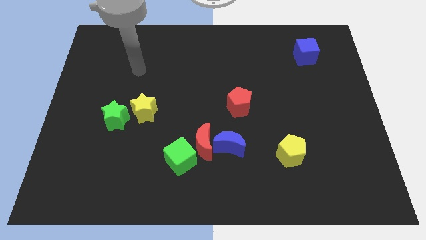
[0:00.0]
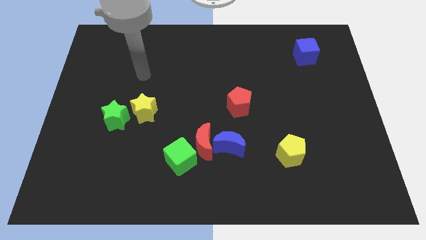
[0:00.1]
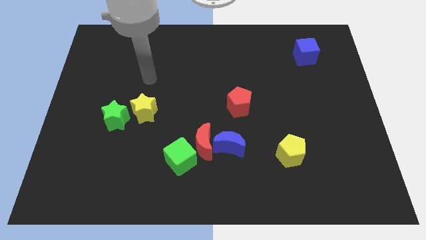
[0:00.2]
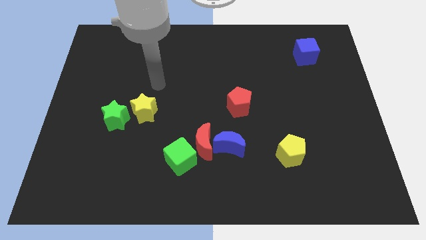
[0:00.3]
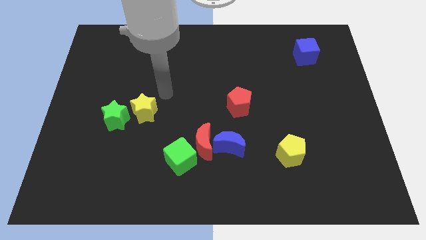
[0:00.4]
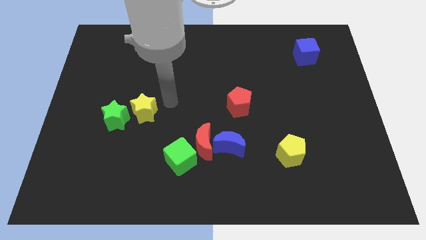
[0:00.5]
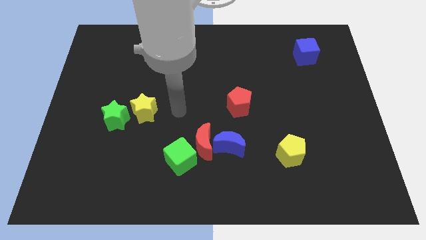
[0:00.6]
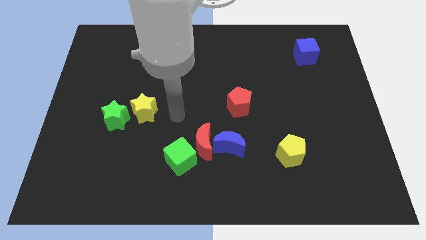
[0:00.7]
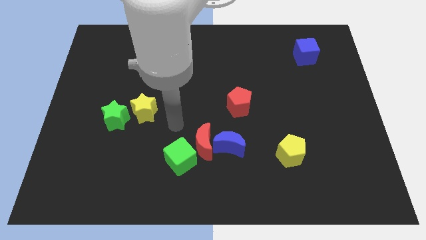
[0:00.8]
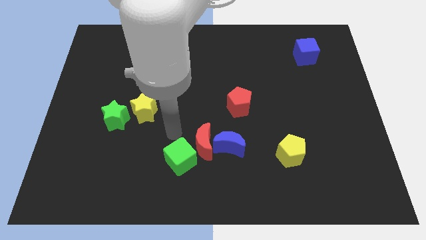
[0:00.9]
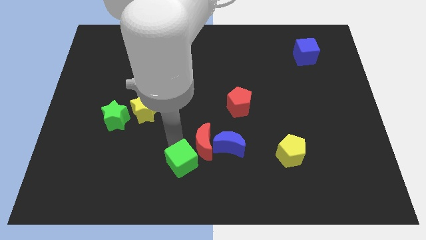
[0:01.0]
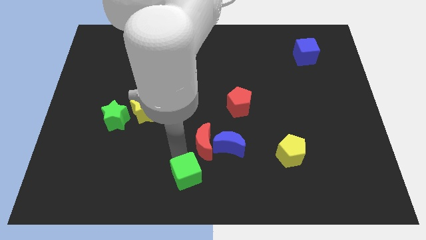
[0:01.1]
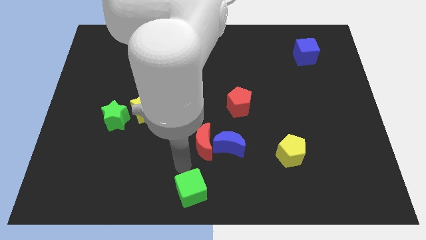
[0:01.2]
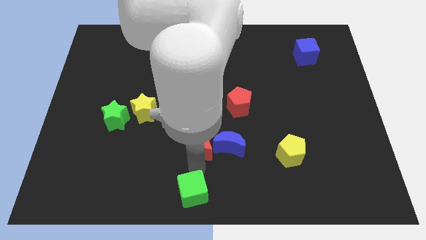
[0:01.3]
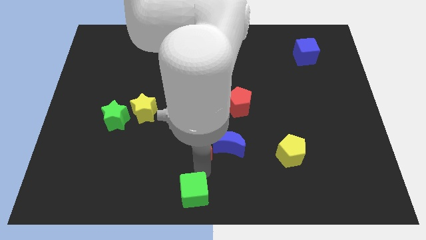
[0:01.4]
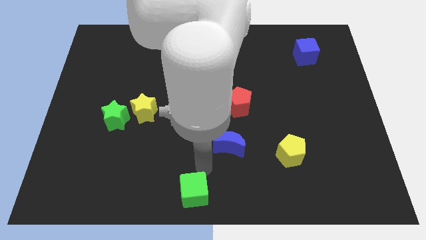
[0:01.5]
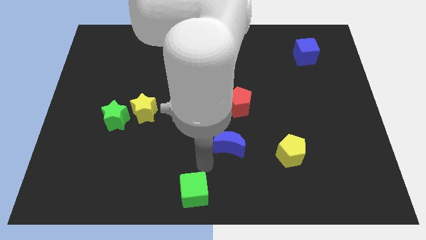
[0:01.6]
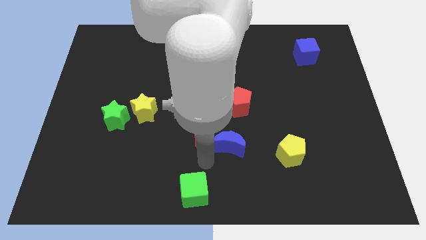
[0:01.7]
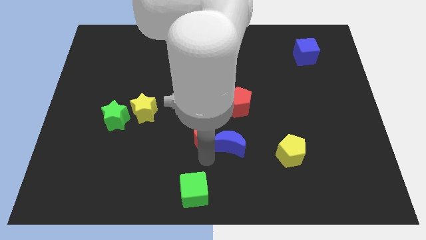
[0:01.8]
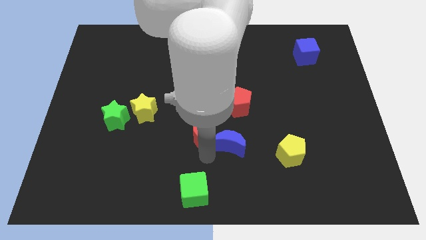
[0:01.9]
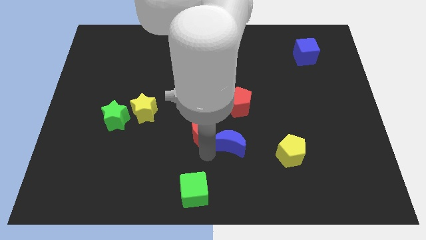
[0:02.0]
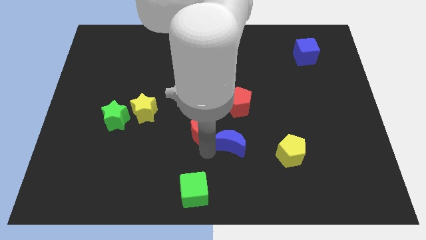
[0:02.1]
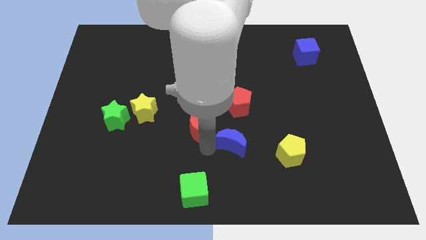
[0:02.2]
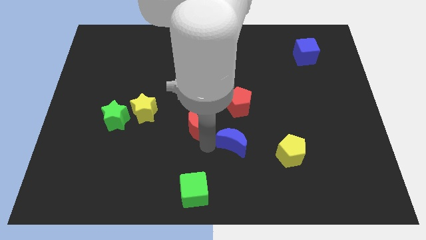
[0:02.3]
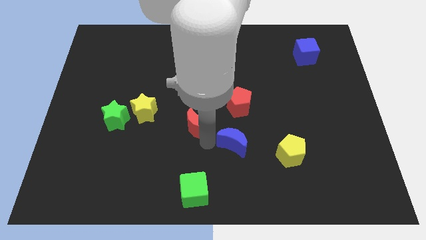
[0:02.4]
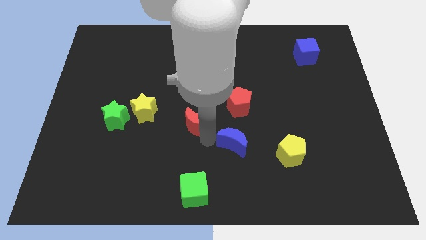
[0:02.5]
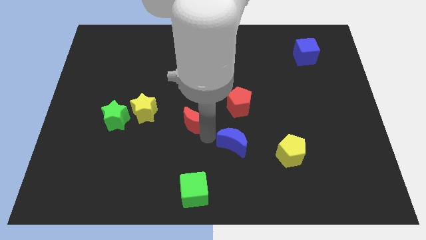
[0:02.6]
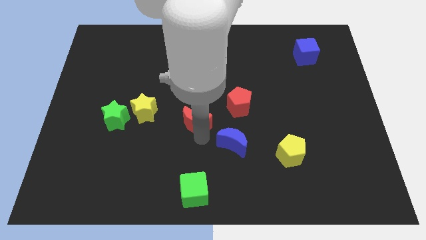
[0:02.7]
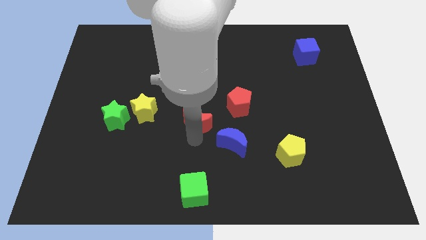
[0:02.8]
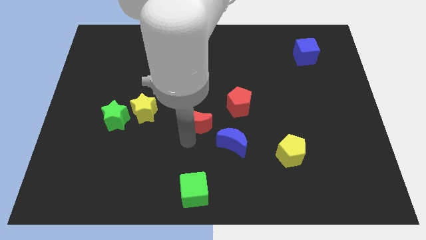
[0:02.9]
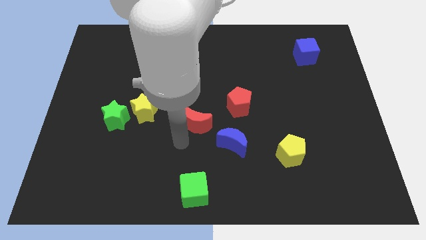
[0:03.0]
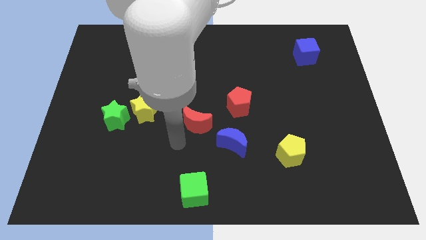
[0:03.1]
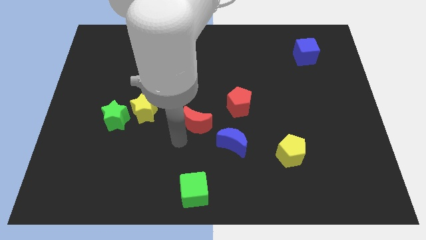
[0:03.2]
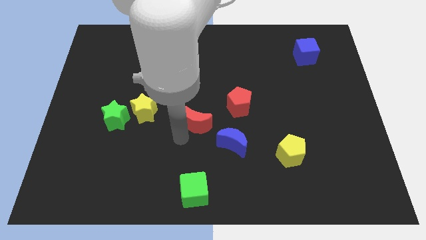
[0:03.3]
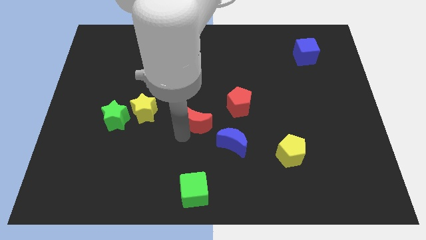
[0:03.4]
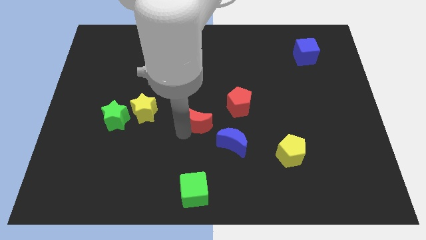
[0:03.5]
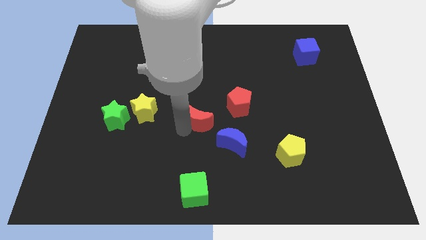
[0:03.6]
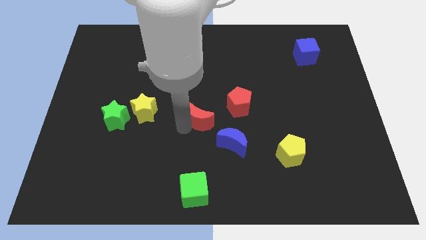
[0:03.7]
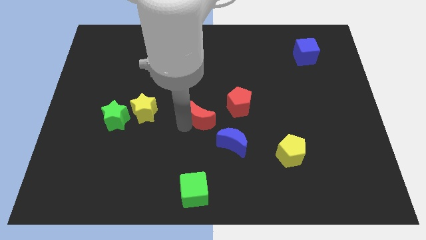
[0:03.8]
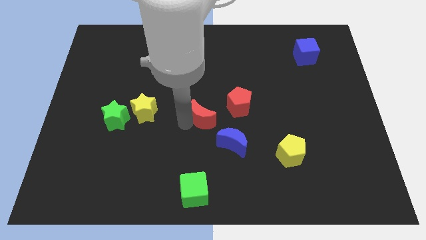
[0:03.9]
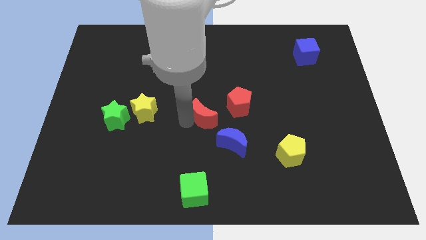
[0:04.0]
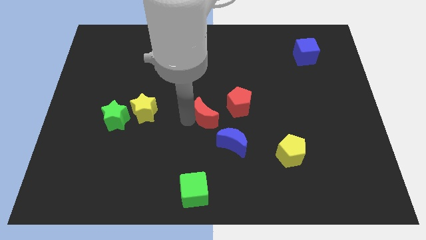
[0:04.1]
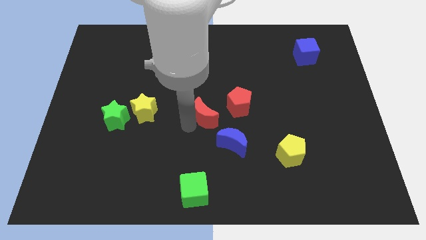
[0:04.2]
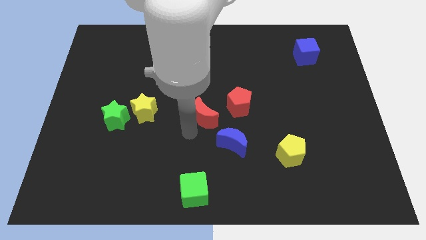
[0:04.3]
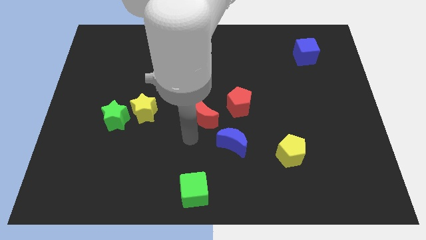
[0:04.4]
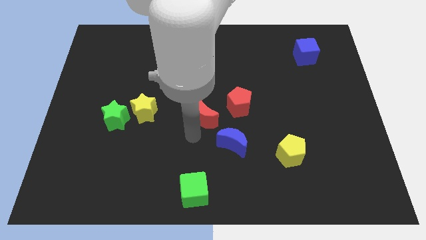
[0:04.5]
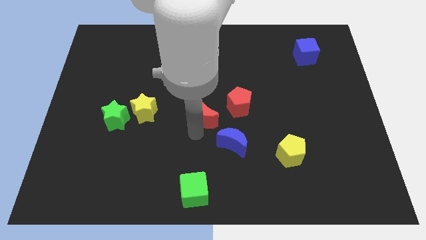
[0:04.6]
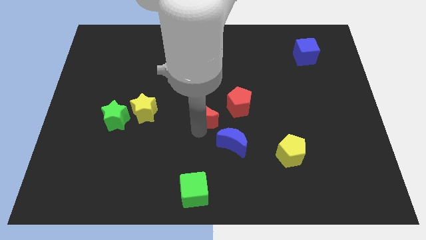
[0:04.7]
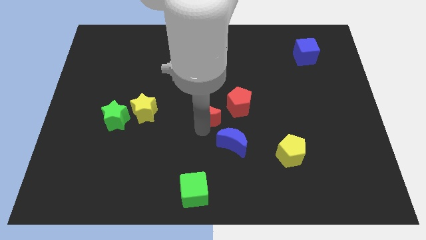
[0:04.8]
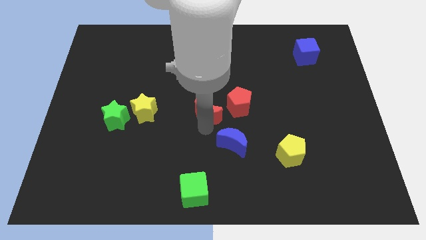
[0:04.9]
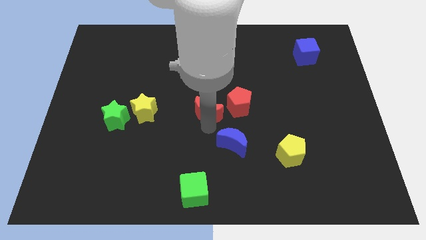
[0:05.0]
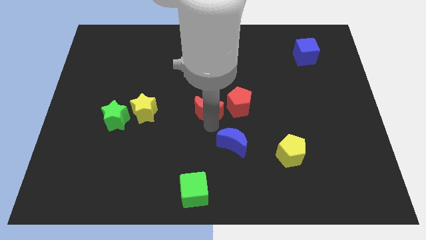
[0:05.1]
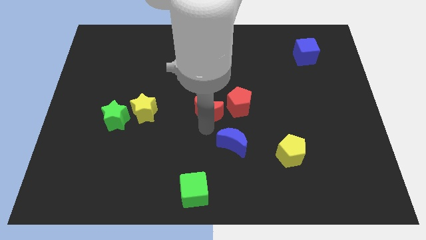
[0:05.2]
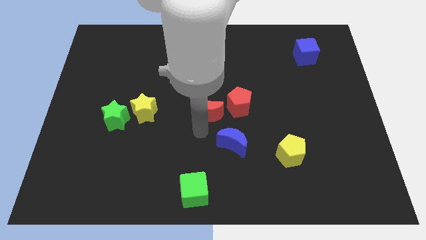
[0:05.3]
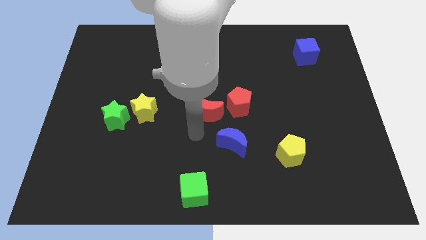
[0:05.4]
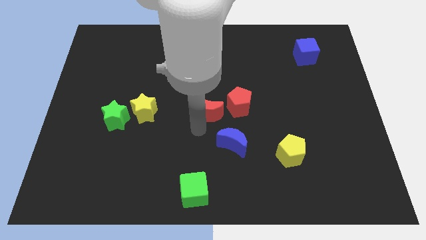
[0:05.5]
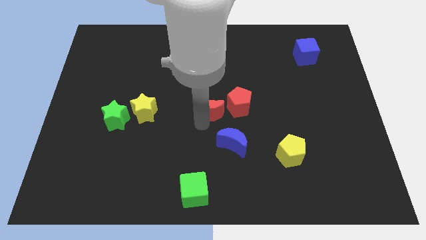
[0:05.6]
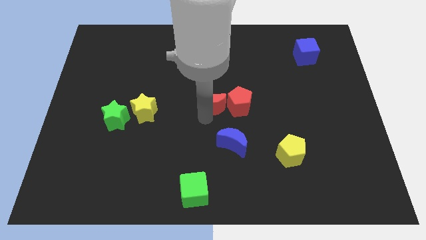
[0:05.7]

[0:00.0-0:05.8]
slide the red moon up and to the right diagonally slightly

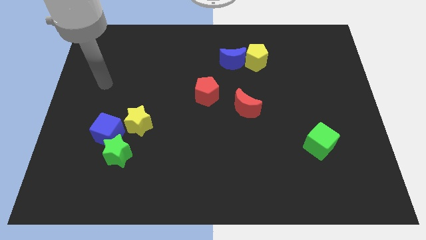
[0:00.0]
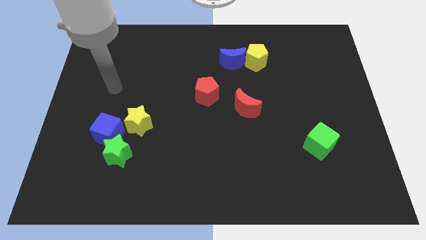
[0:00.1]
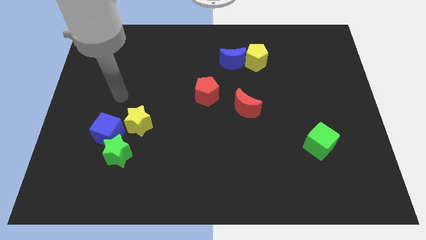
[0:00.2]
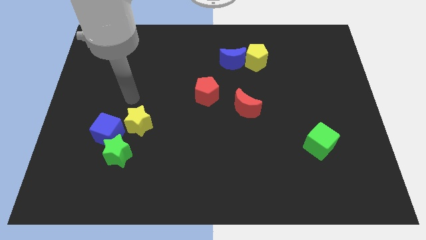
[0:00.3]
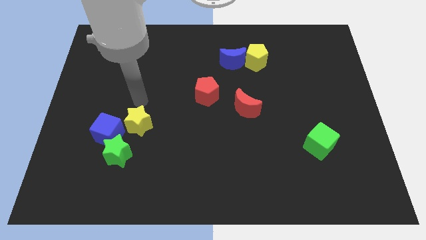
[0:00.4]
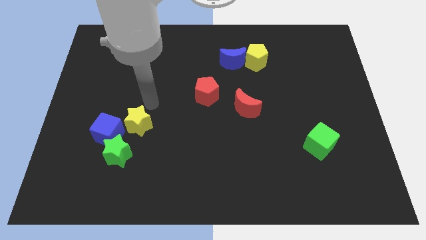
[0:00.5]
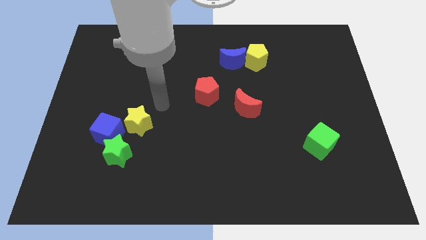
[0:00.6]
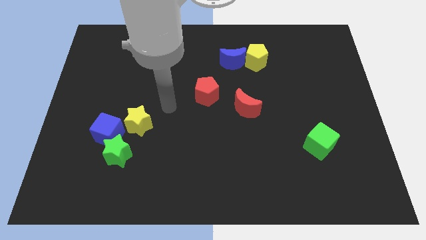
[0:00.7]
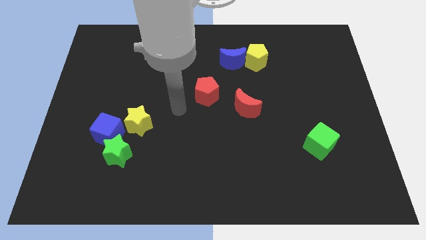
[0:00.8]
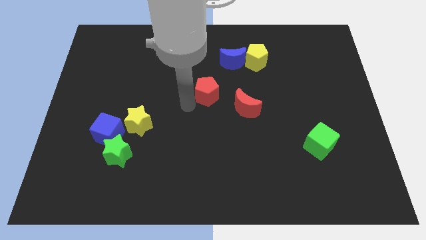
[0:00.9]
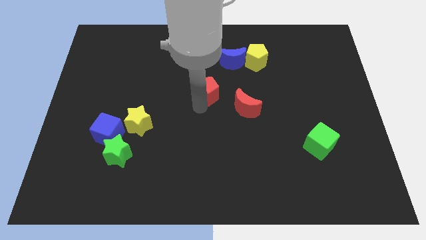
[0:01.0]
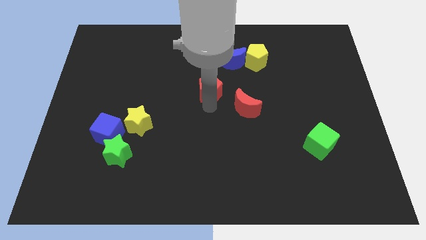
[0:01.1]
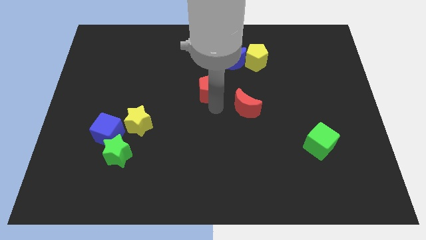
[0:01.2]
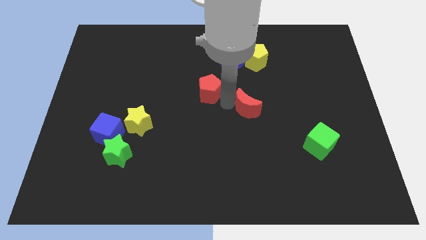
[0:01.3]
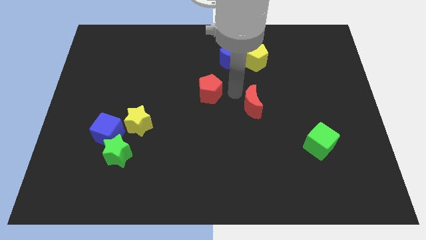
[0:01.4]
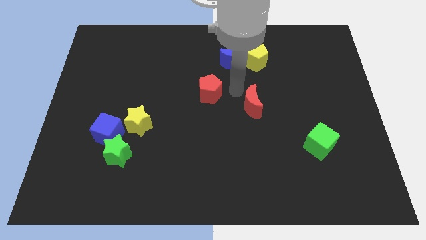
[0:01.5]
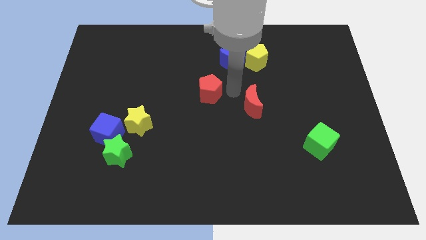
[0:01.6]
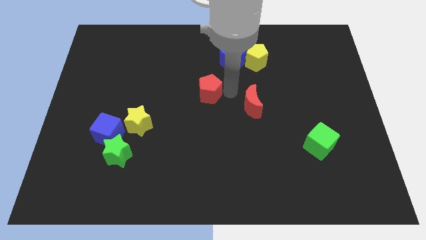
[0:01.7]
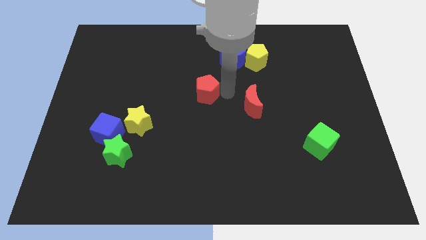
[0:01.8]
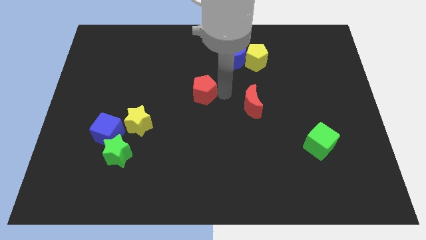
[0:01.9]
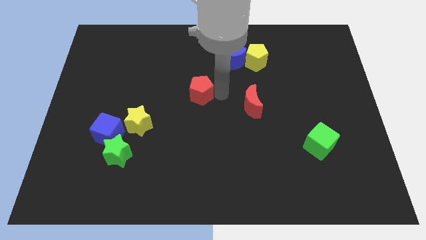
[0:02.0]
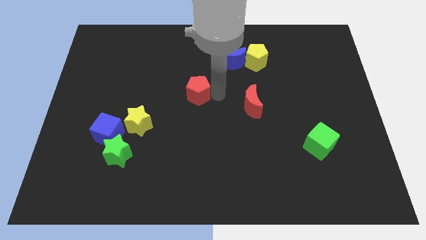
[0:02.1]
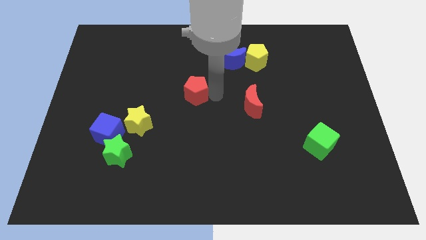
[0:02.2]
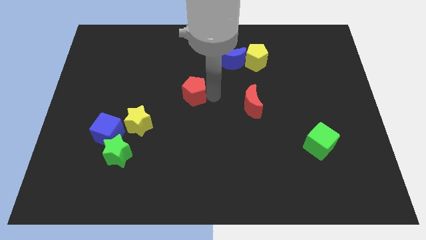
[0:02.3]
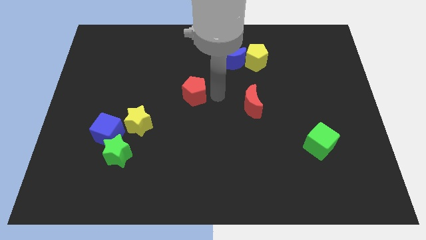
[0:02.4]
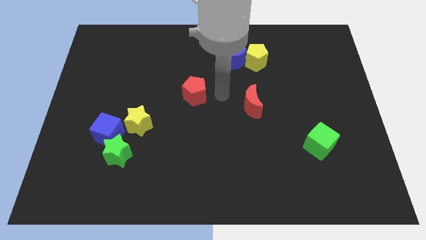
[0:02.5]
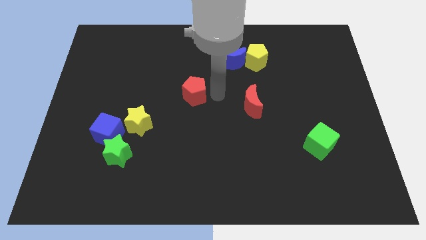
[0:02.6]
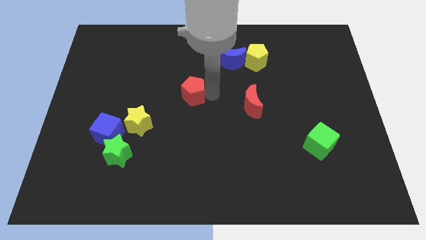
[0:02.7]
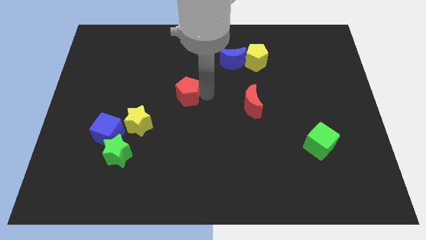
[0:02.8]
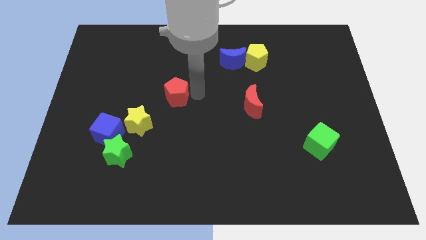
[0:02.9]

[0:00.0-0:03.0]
slide the red pentagon to the left slightly
